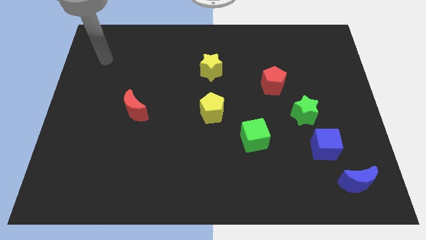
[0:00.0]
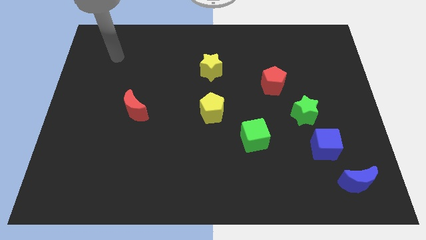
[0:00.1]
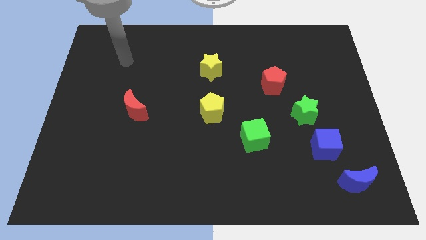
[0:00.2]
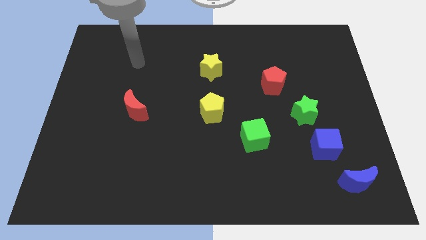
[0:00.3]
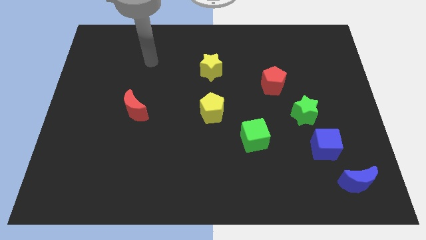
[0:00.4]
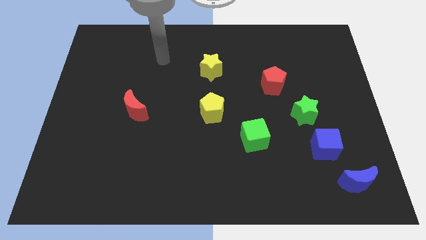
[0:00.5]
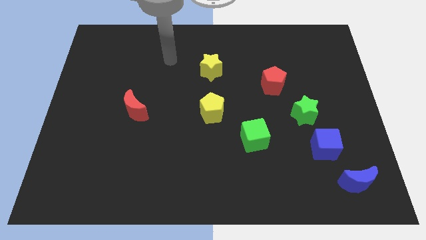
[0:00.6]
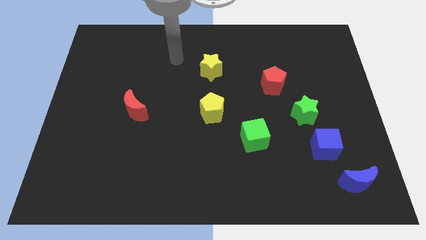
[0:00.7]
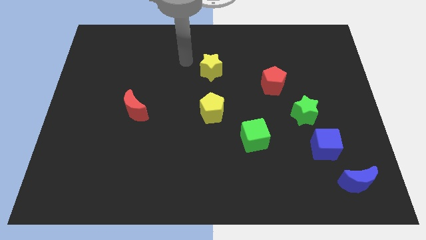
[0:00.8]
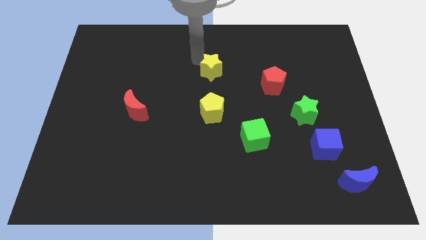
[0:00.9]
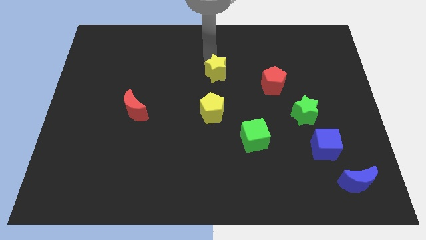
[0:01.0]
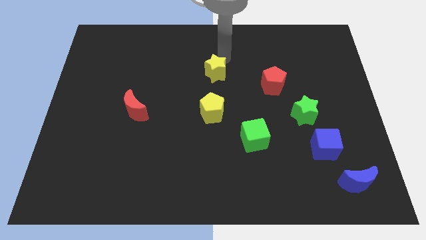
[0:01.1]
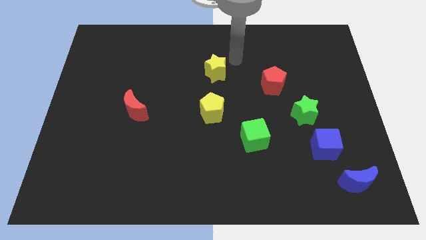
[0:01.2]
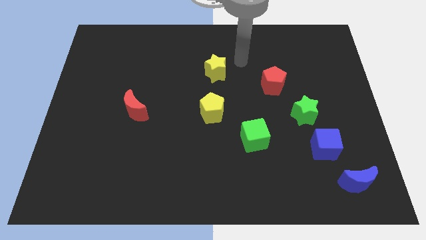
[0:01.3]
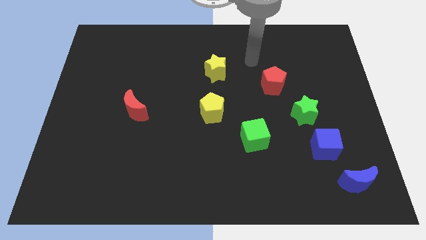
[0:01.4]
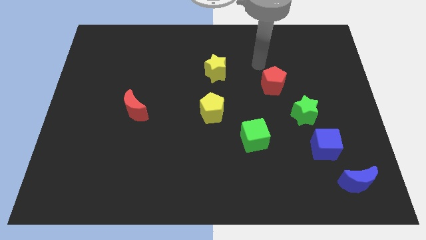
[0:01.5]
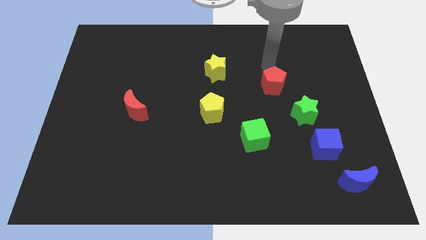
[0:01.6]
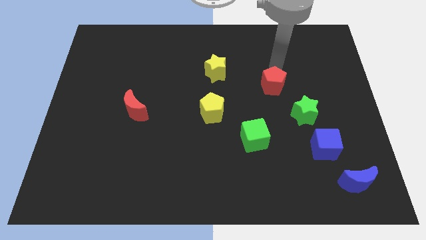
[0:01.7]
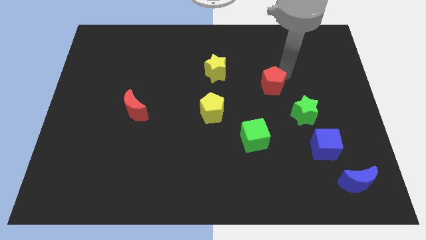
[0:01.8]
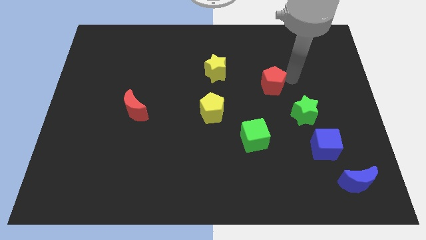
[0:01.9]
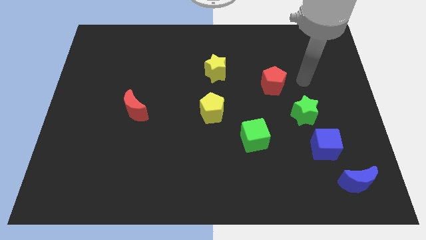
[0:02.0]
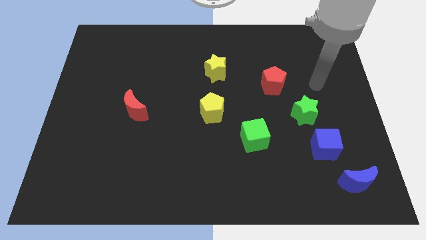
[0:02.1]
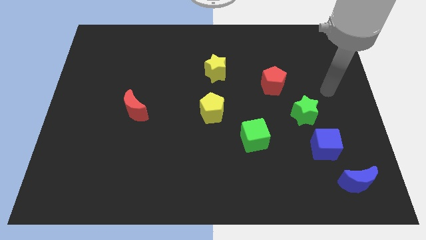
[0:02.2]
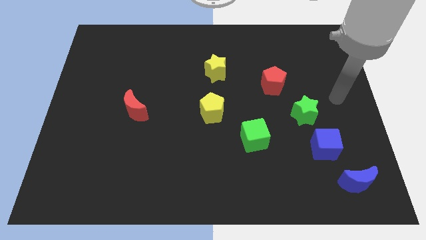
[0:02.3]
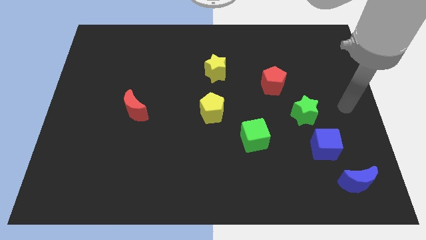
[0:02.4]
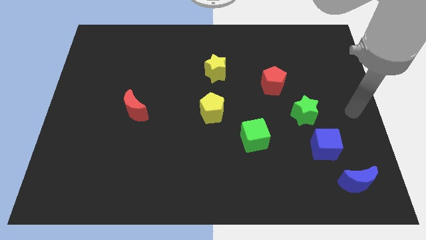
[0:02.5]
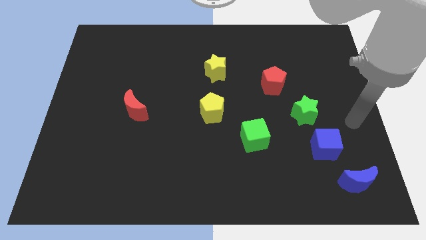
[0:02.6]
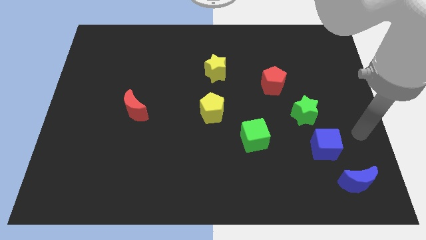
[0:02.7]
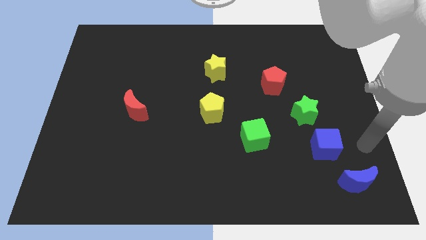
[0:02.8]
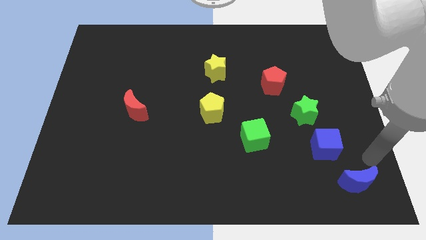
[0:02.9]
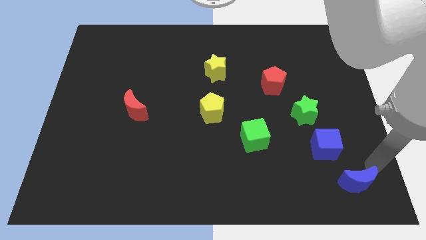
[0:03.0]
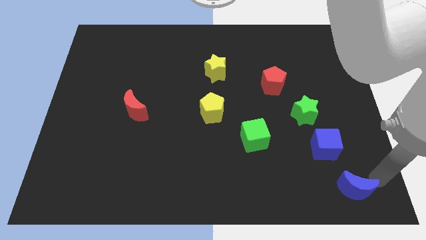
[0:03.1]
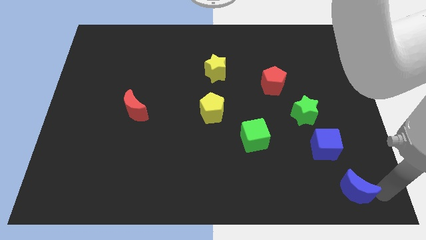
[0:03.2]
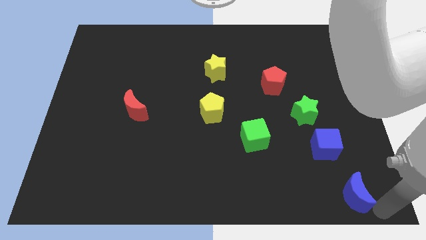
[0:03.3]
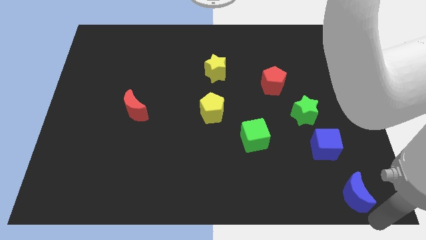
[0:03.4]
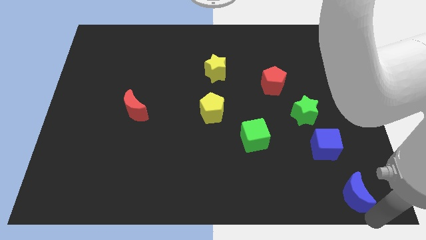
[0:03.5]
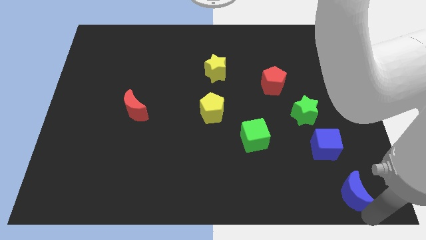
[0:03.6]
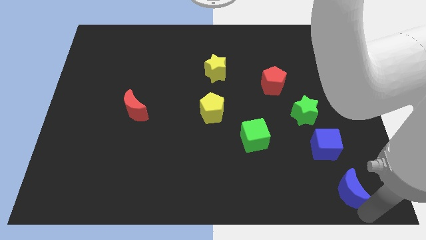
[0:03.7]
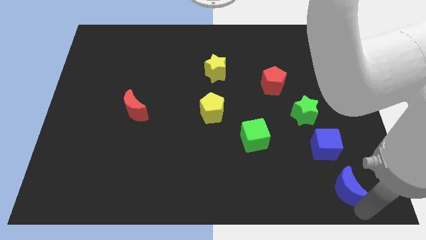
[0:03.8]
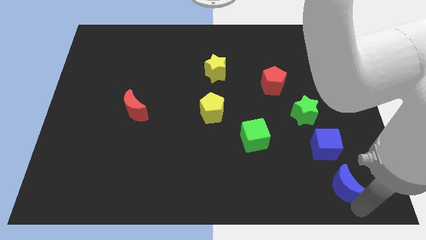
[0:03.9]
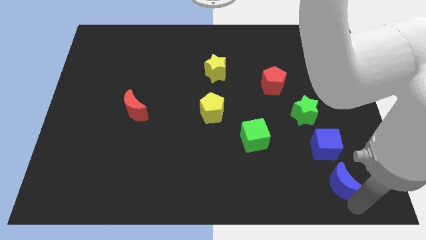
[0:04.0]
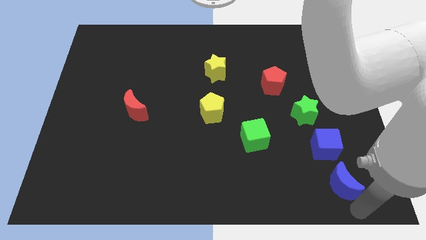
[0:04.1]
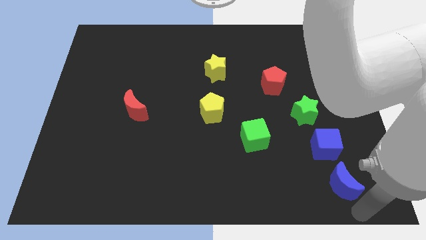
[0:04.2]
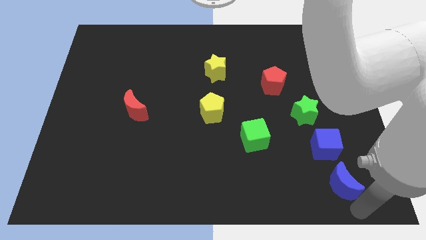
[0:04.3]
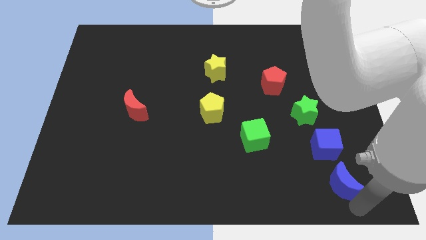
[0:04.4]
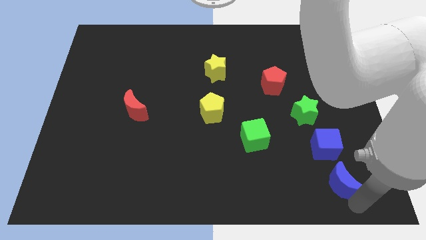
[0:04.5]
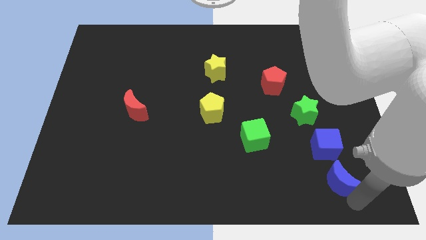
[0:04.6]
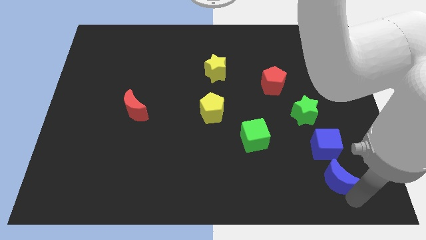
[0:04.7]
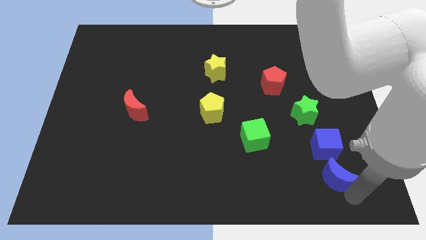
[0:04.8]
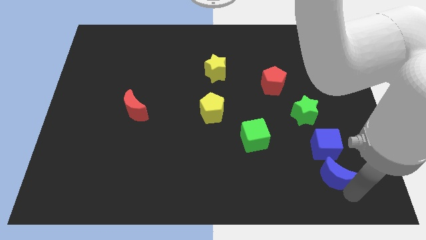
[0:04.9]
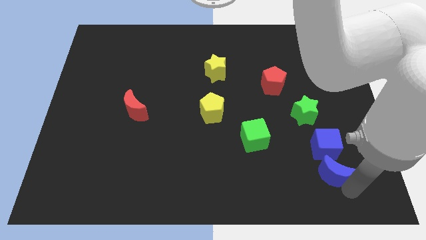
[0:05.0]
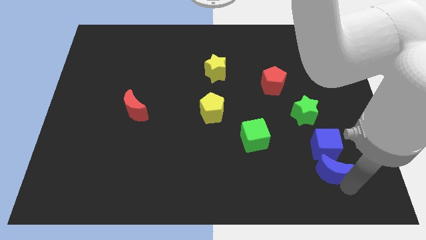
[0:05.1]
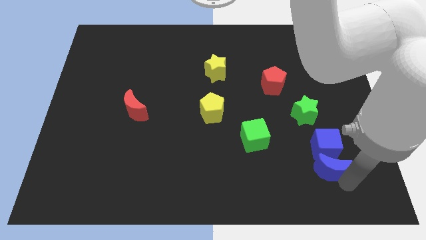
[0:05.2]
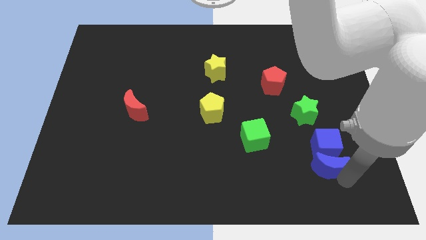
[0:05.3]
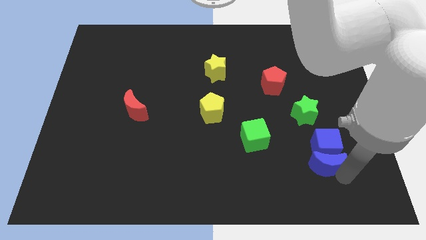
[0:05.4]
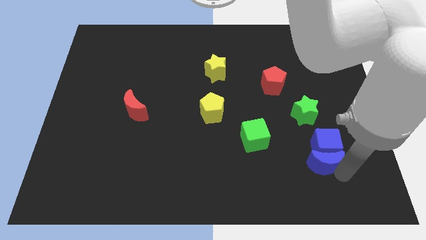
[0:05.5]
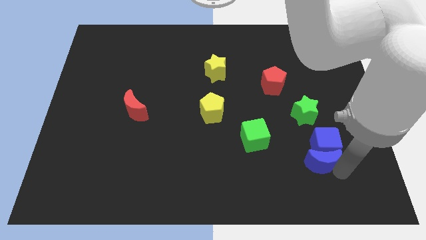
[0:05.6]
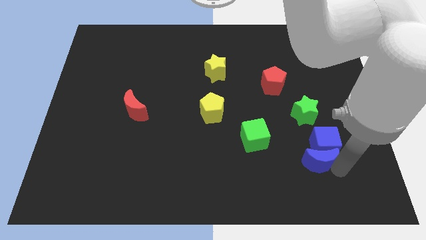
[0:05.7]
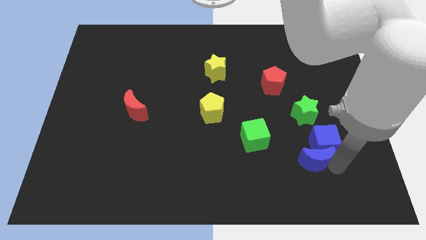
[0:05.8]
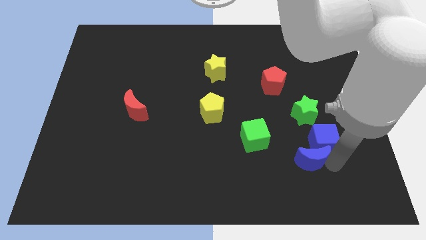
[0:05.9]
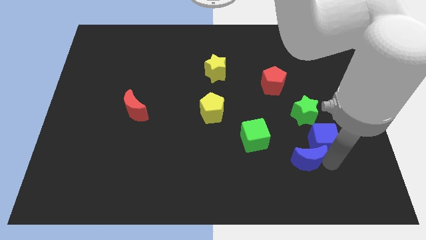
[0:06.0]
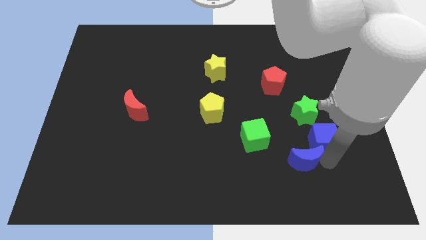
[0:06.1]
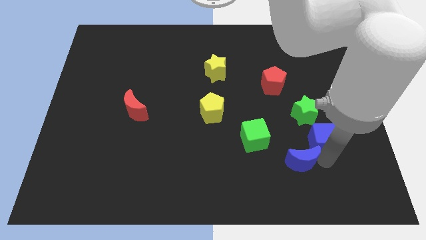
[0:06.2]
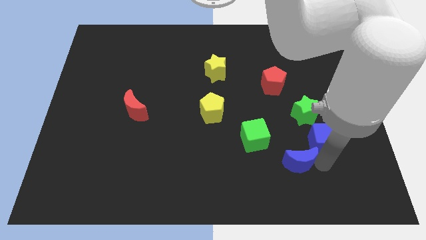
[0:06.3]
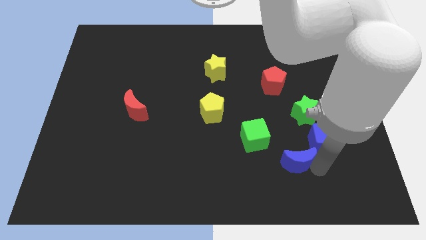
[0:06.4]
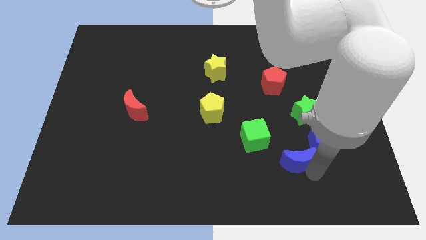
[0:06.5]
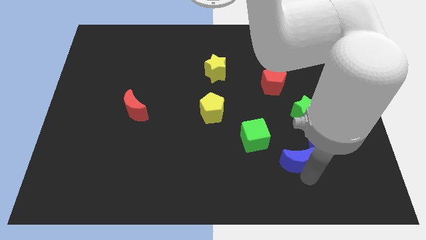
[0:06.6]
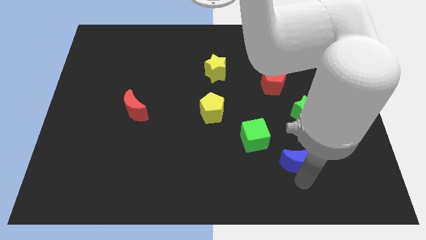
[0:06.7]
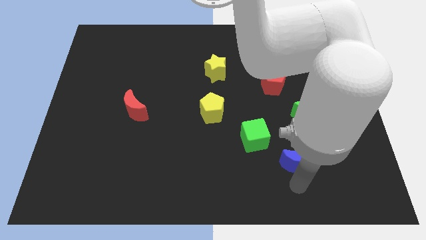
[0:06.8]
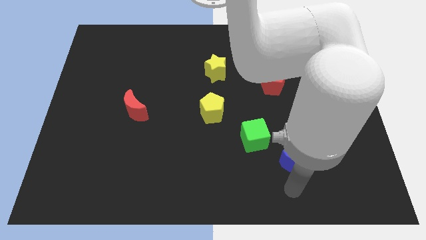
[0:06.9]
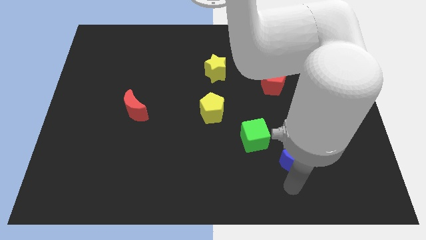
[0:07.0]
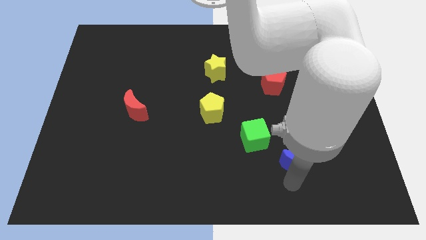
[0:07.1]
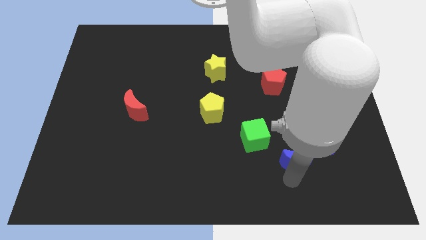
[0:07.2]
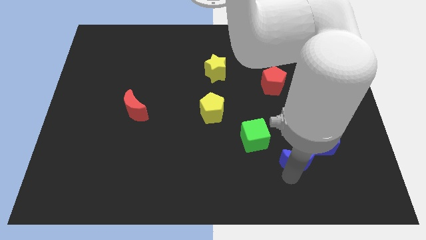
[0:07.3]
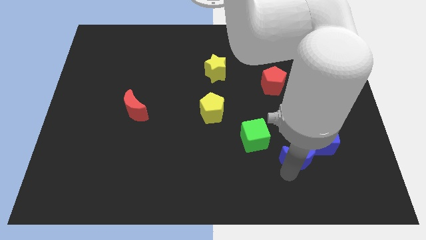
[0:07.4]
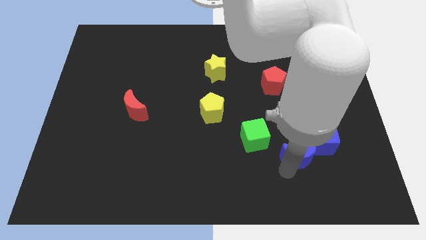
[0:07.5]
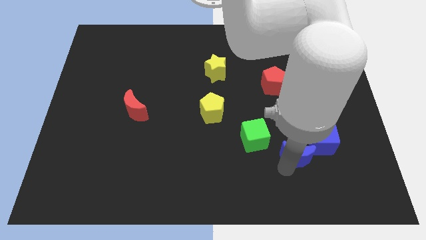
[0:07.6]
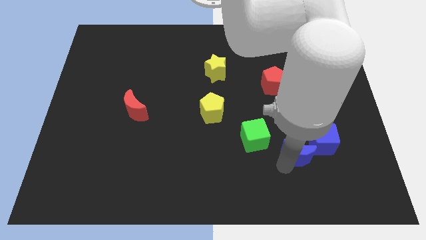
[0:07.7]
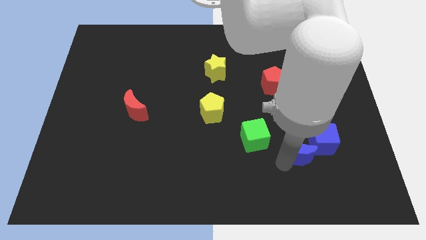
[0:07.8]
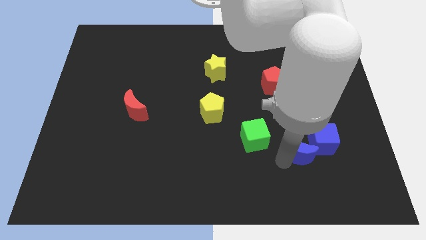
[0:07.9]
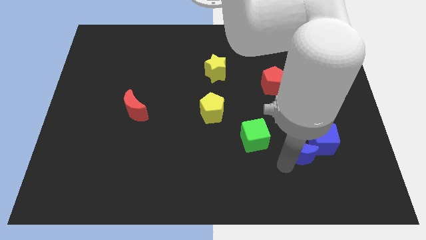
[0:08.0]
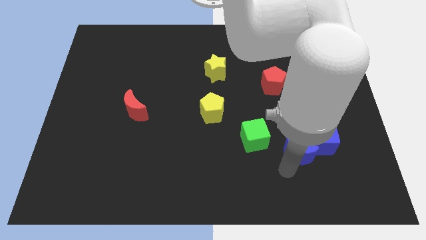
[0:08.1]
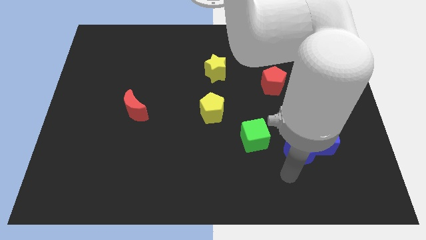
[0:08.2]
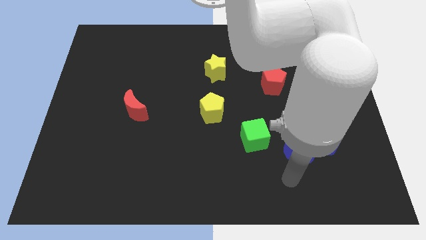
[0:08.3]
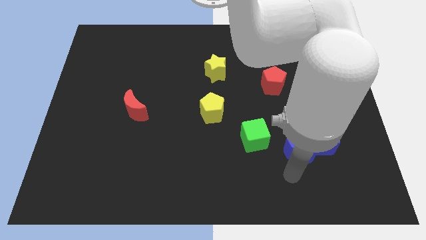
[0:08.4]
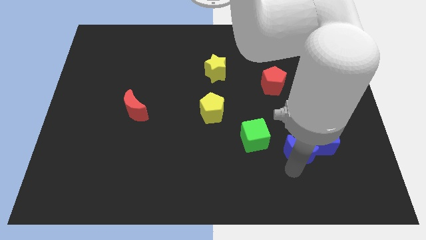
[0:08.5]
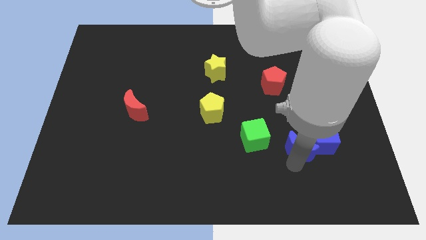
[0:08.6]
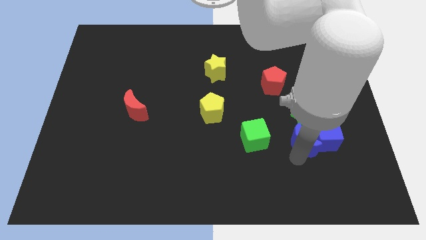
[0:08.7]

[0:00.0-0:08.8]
push the blue moon to the top left side of the blue cube
